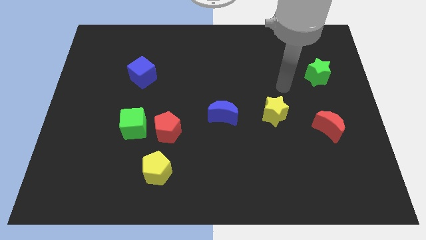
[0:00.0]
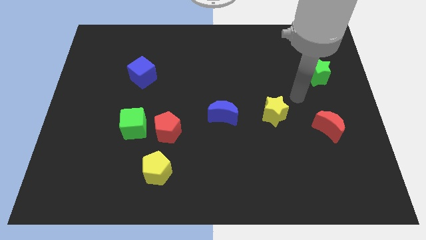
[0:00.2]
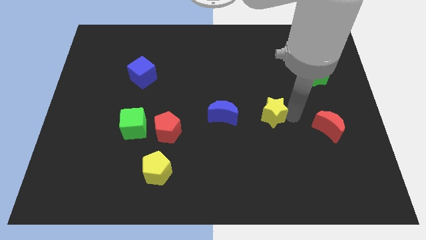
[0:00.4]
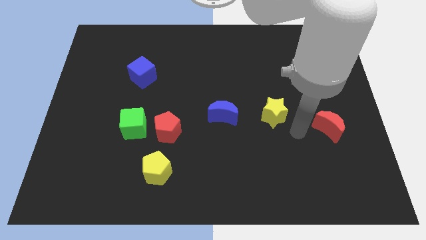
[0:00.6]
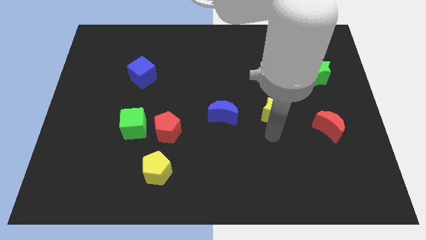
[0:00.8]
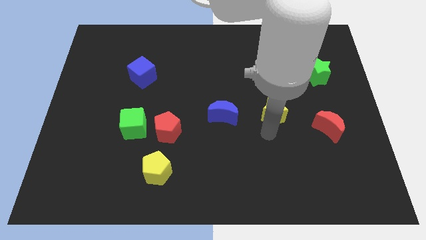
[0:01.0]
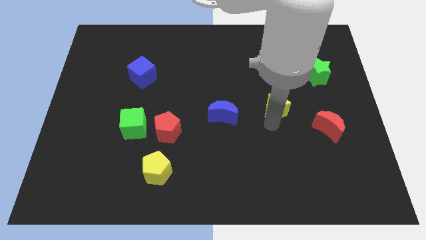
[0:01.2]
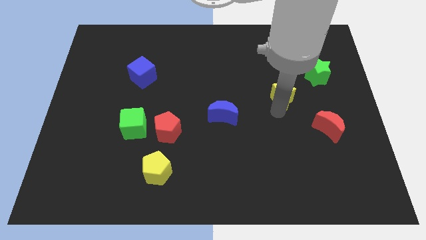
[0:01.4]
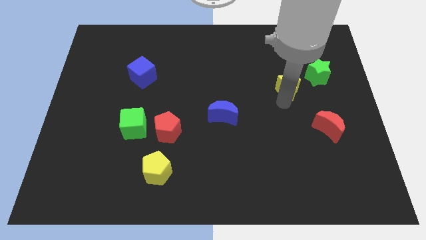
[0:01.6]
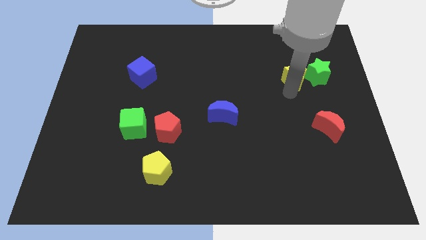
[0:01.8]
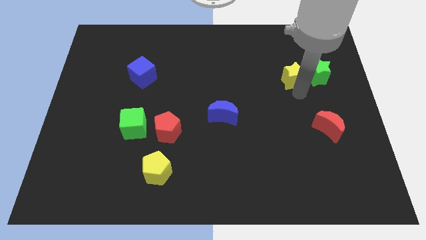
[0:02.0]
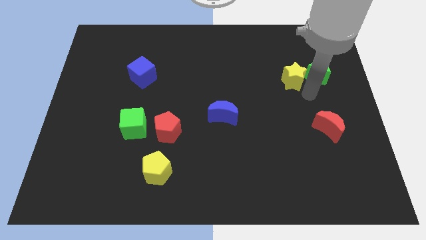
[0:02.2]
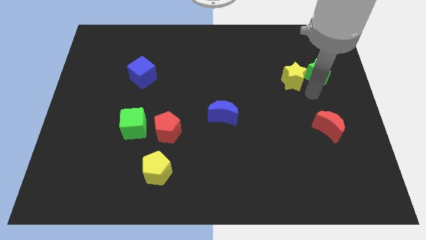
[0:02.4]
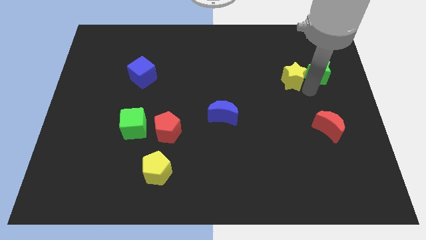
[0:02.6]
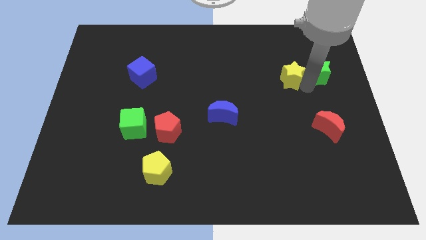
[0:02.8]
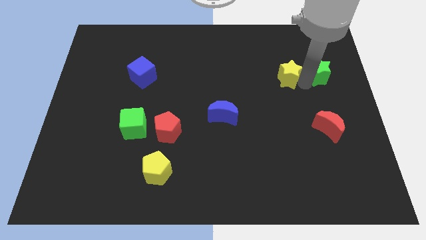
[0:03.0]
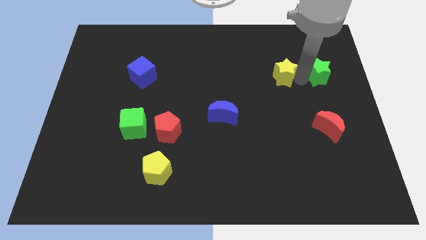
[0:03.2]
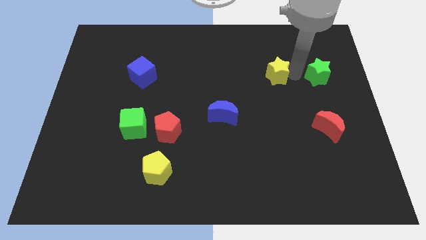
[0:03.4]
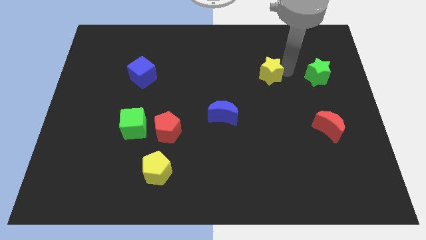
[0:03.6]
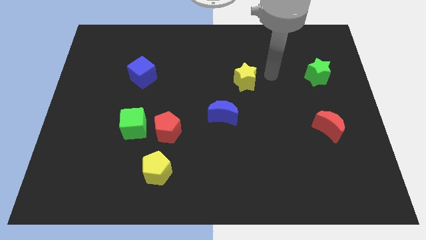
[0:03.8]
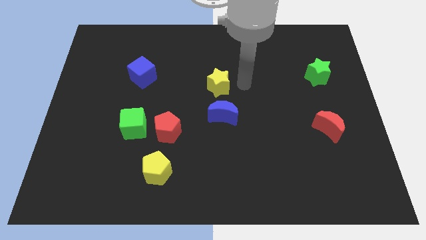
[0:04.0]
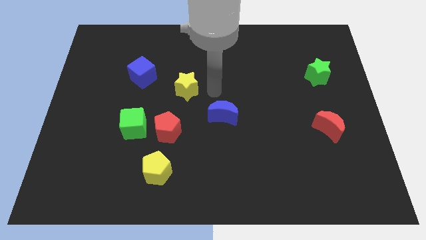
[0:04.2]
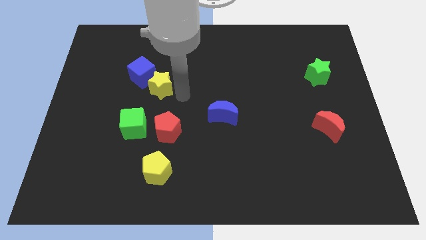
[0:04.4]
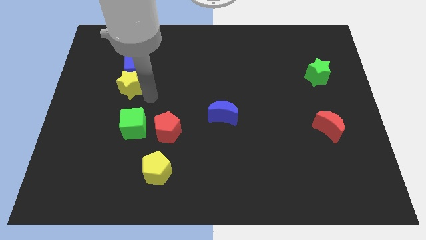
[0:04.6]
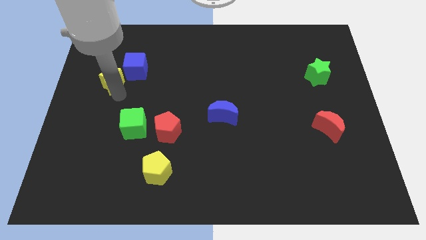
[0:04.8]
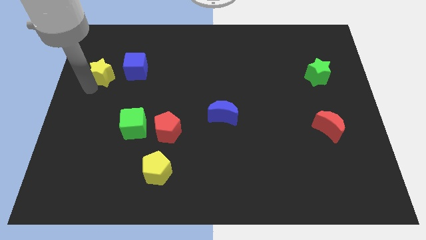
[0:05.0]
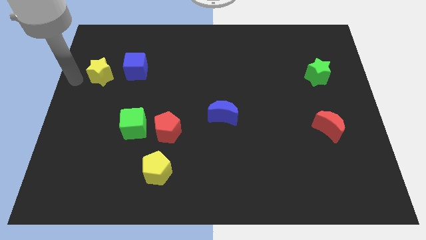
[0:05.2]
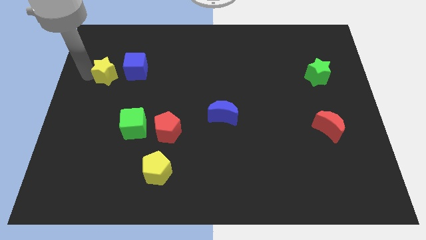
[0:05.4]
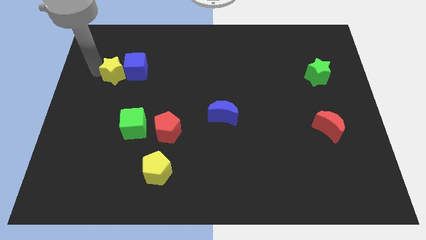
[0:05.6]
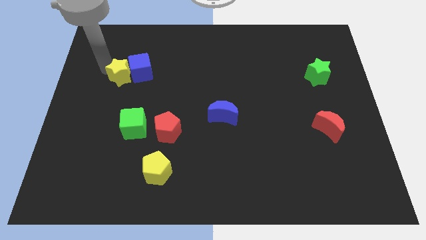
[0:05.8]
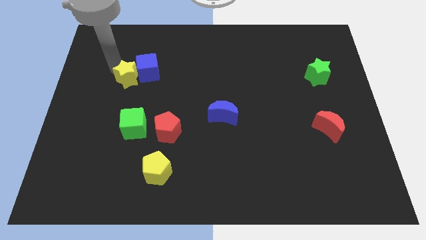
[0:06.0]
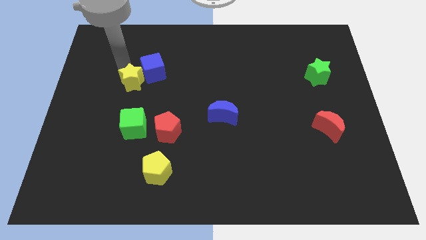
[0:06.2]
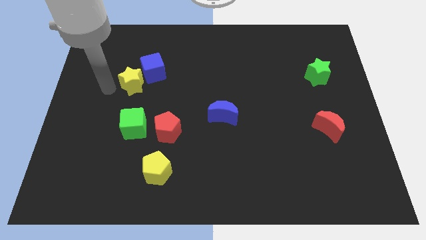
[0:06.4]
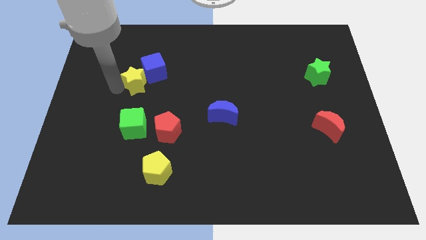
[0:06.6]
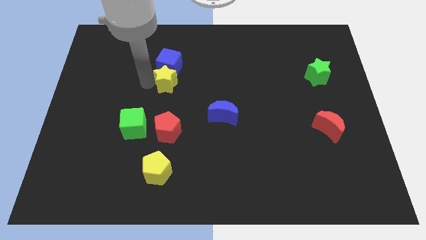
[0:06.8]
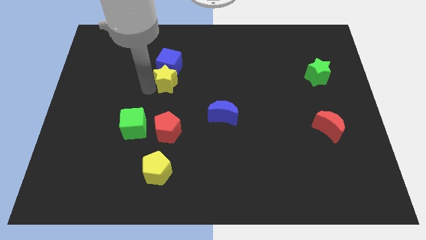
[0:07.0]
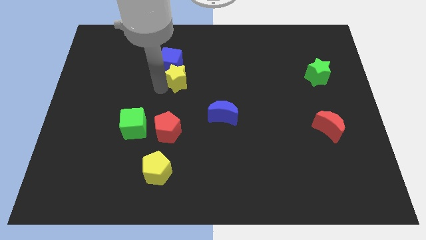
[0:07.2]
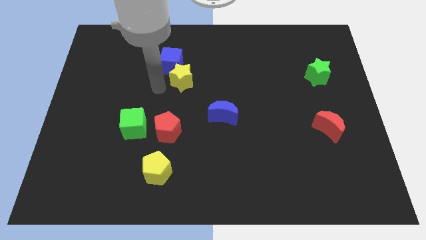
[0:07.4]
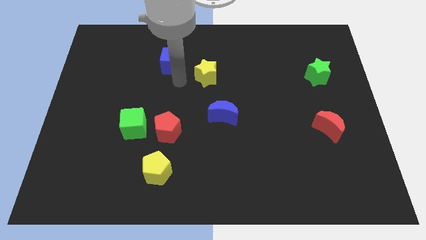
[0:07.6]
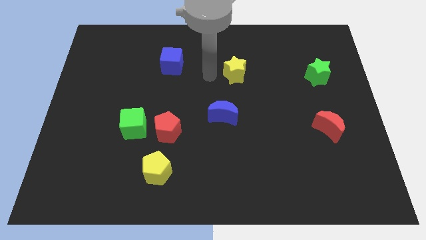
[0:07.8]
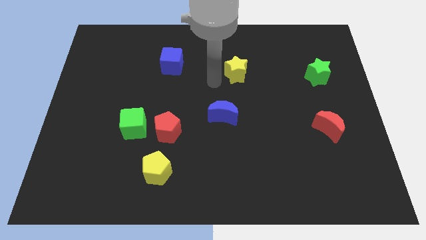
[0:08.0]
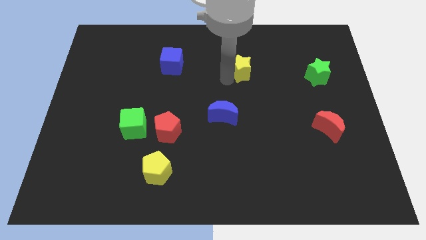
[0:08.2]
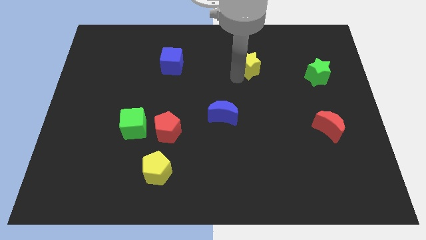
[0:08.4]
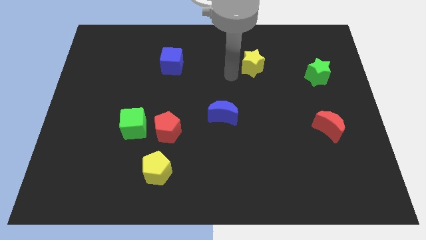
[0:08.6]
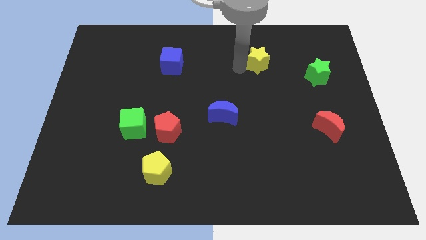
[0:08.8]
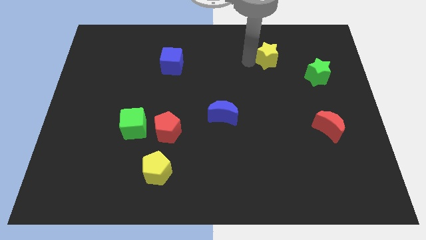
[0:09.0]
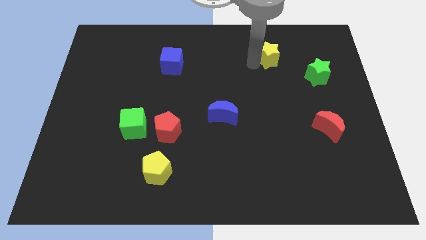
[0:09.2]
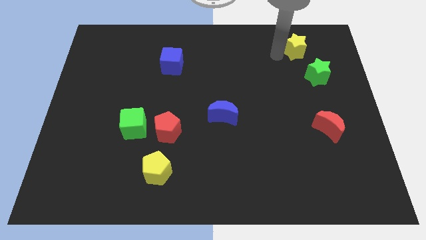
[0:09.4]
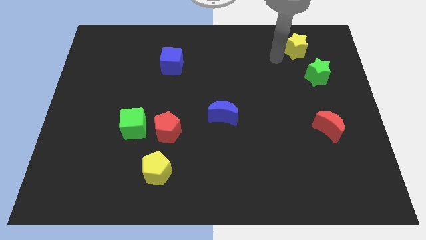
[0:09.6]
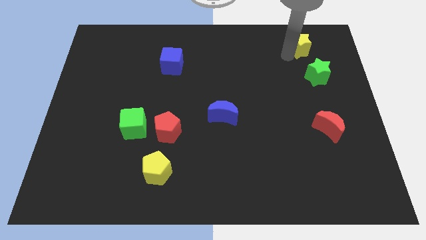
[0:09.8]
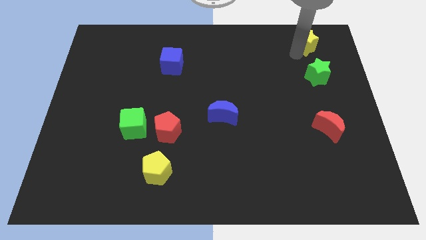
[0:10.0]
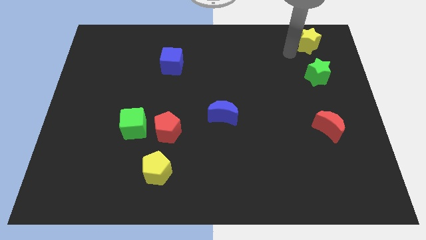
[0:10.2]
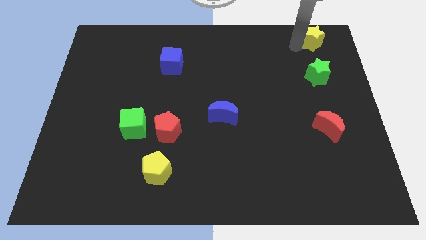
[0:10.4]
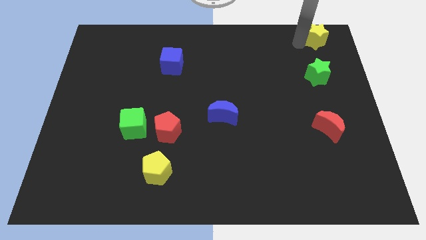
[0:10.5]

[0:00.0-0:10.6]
put the yellow star to the top right of the board

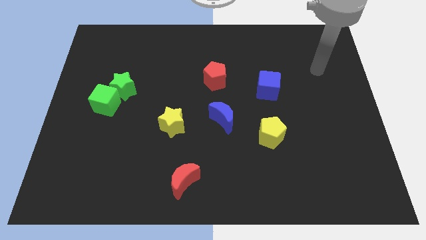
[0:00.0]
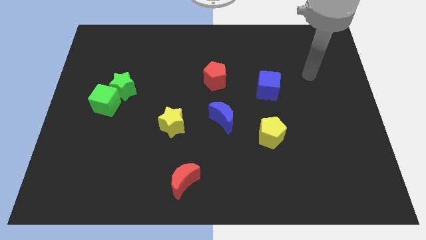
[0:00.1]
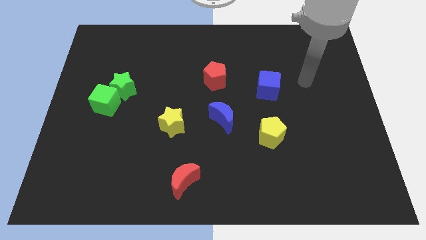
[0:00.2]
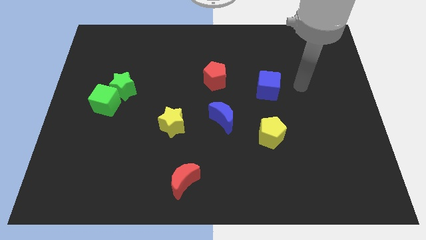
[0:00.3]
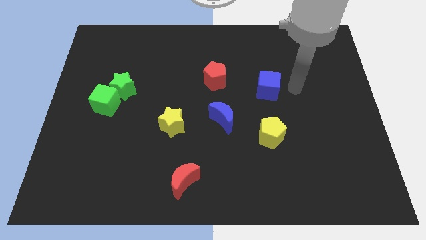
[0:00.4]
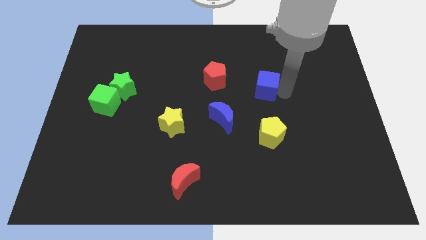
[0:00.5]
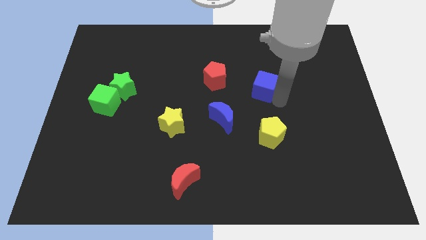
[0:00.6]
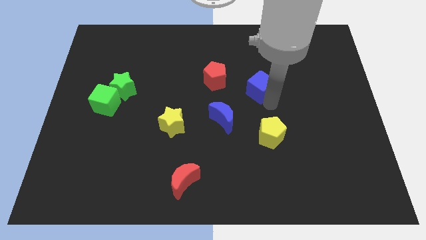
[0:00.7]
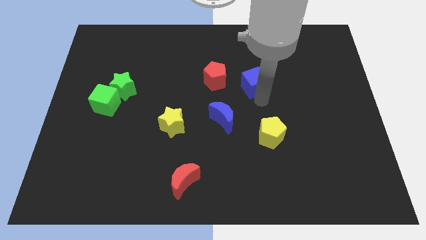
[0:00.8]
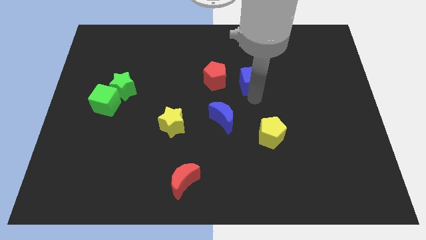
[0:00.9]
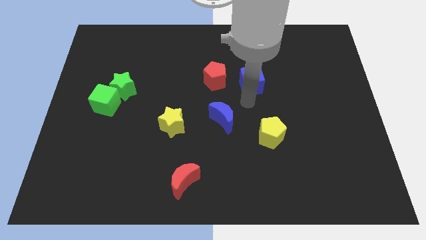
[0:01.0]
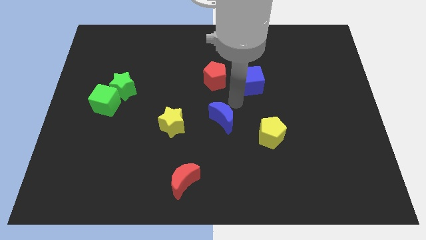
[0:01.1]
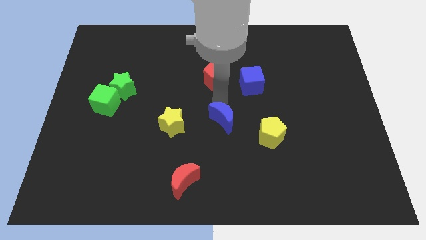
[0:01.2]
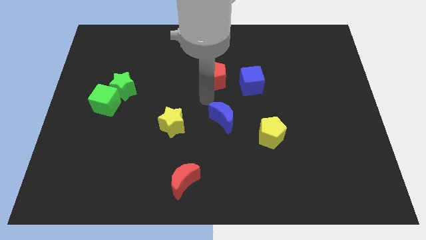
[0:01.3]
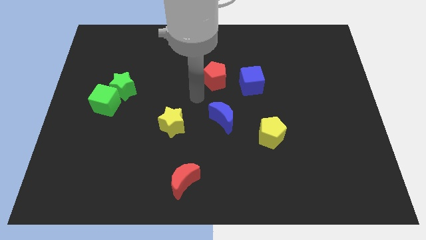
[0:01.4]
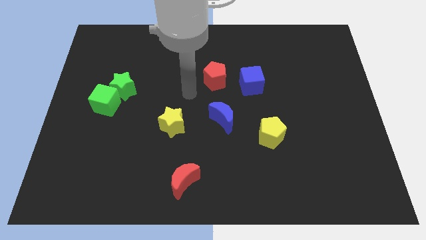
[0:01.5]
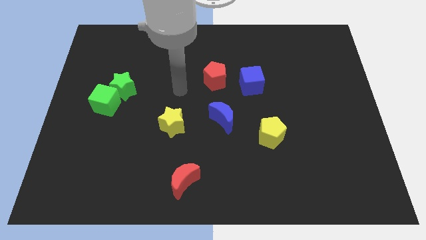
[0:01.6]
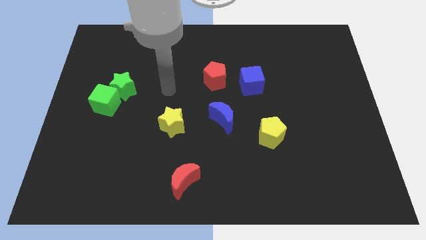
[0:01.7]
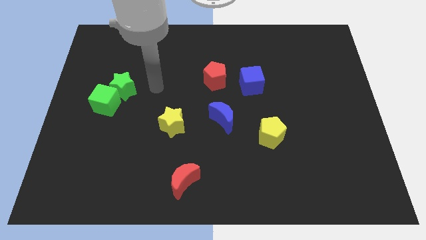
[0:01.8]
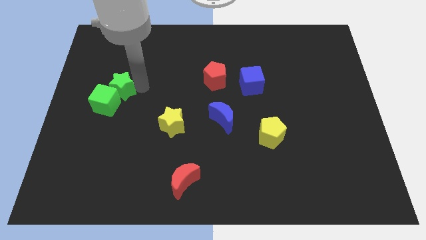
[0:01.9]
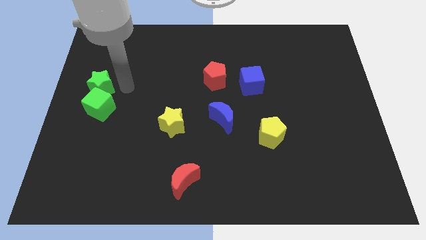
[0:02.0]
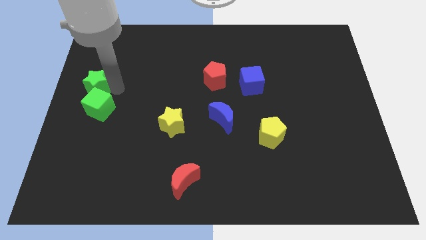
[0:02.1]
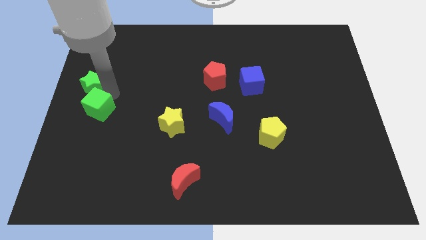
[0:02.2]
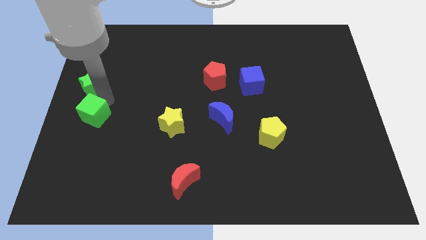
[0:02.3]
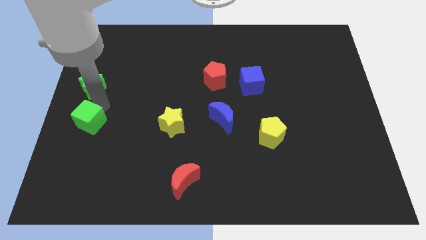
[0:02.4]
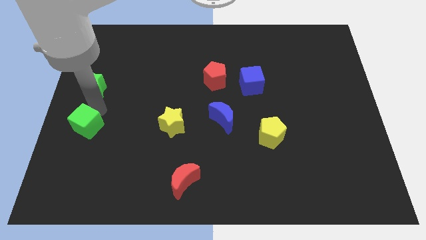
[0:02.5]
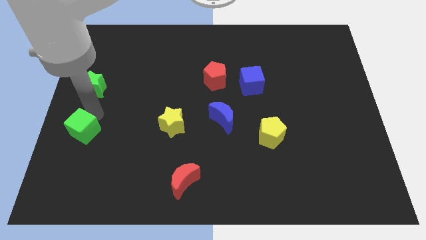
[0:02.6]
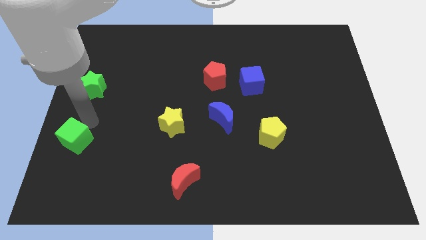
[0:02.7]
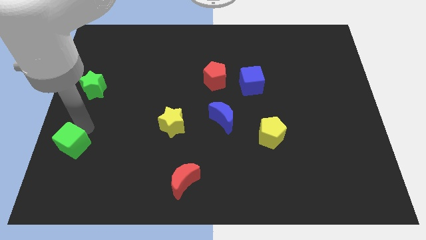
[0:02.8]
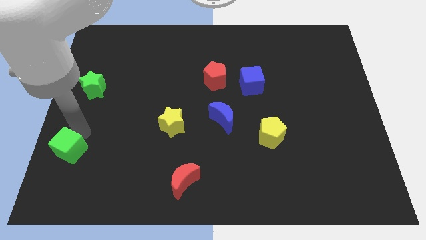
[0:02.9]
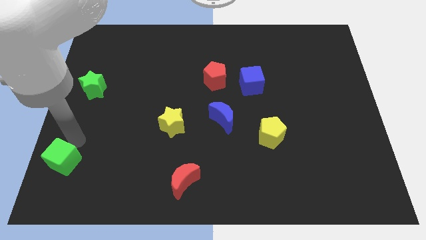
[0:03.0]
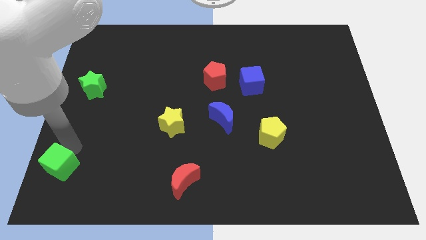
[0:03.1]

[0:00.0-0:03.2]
push the green cube to the bottom left of the board
